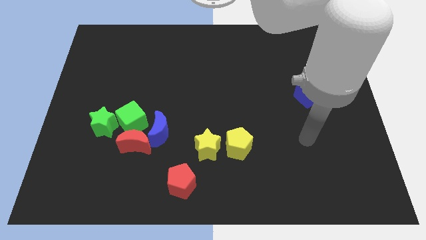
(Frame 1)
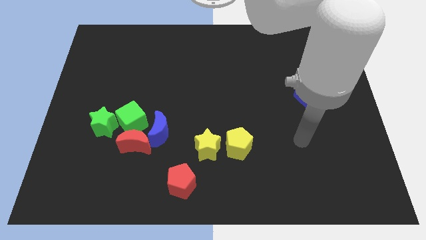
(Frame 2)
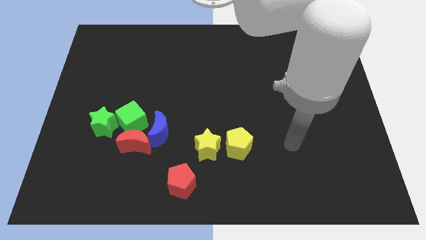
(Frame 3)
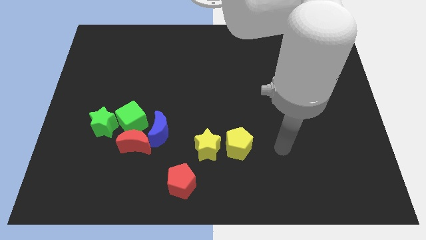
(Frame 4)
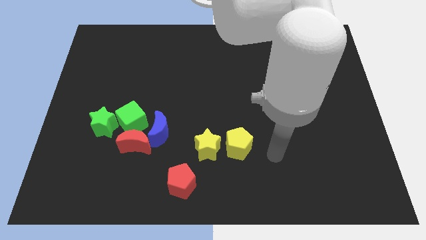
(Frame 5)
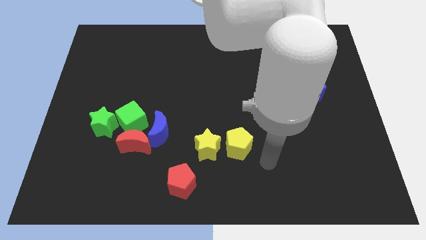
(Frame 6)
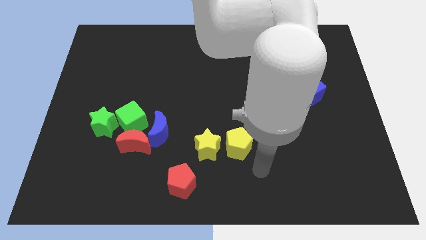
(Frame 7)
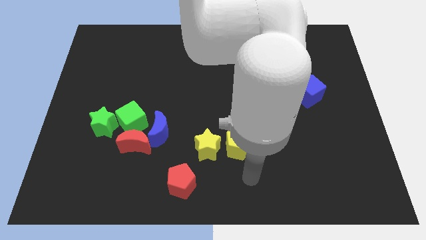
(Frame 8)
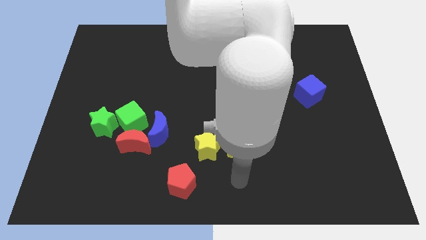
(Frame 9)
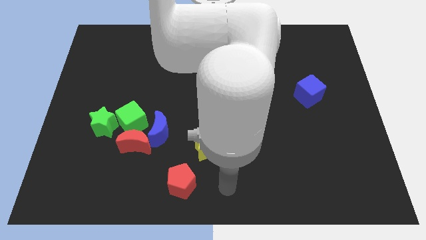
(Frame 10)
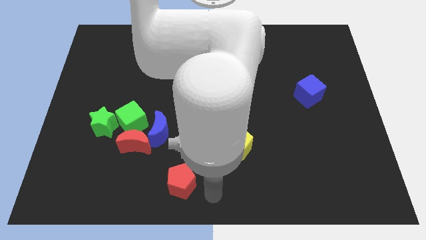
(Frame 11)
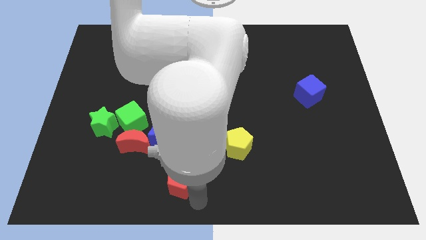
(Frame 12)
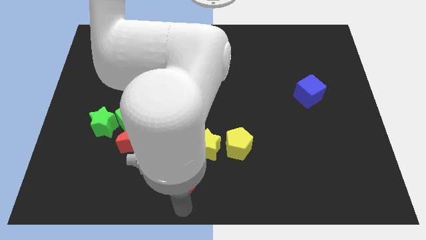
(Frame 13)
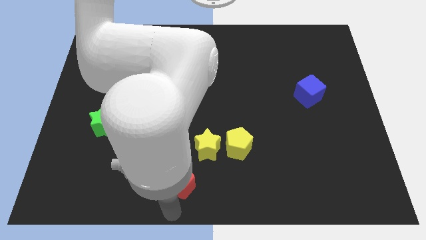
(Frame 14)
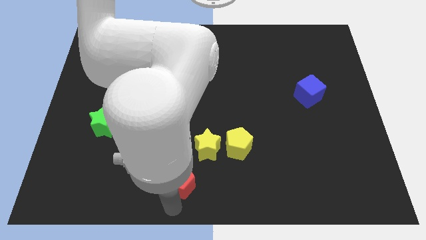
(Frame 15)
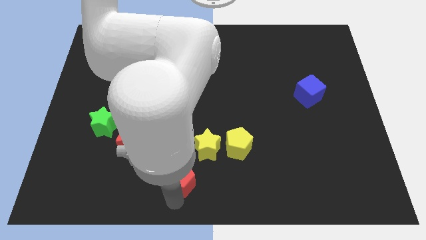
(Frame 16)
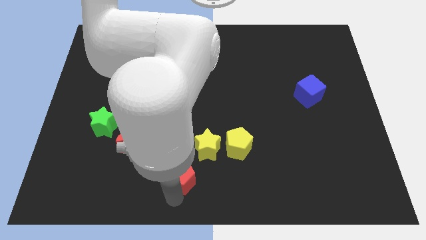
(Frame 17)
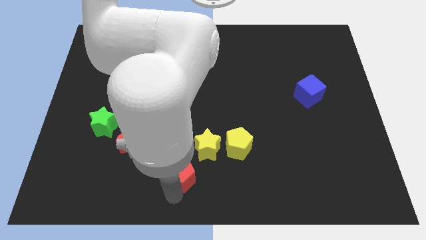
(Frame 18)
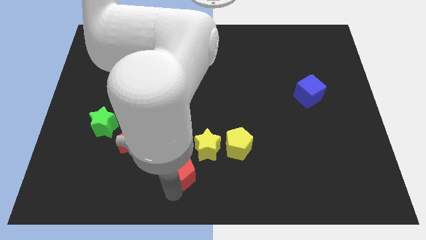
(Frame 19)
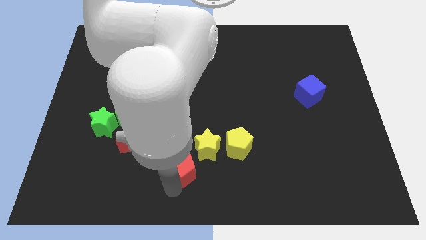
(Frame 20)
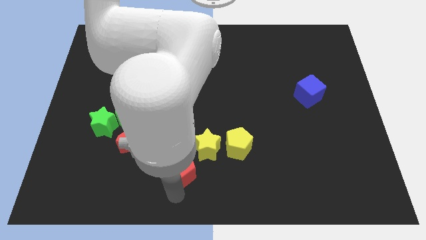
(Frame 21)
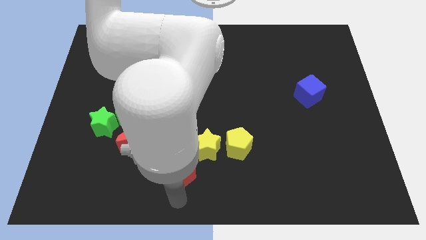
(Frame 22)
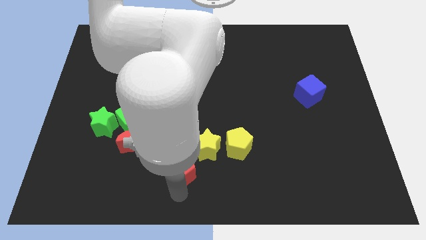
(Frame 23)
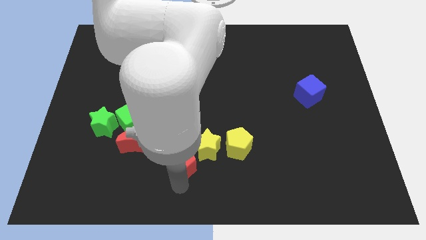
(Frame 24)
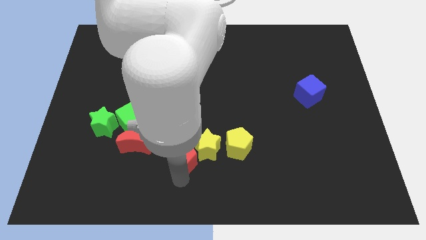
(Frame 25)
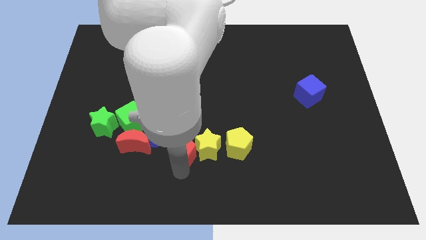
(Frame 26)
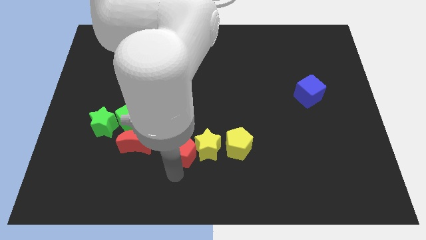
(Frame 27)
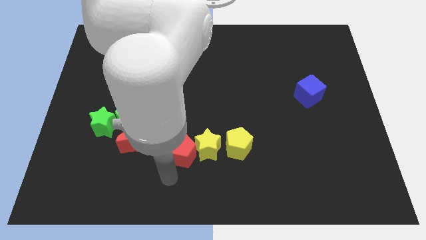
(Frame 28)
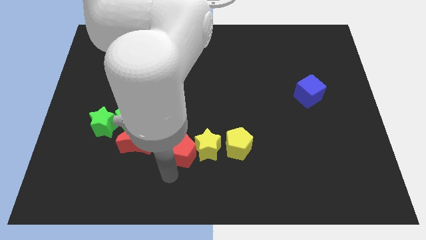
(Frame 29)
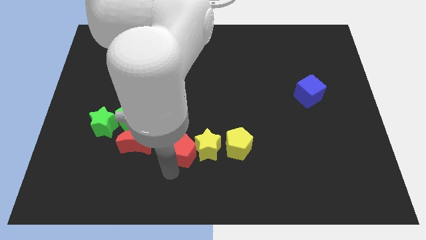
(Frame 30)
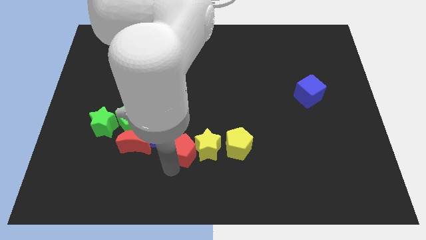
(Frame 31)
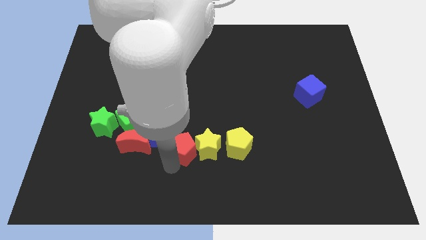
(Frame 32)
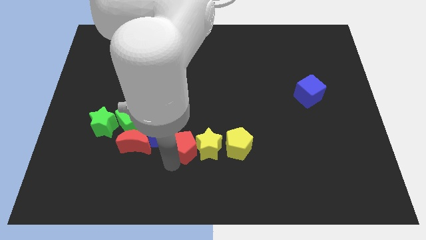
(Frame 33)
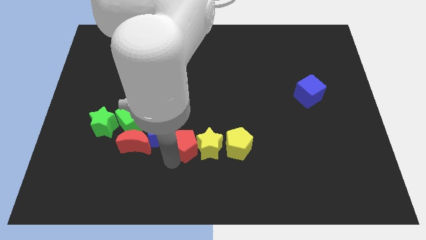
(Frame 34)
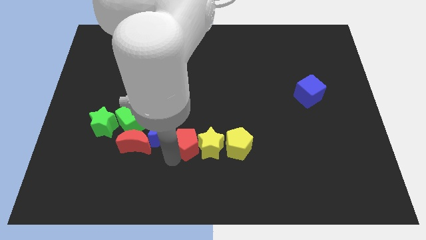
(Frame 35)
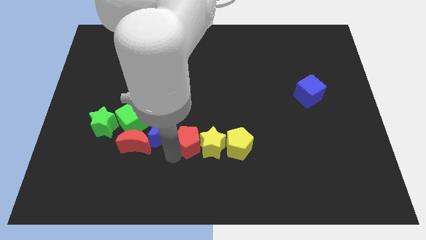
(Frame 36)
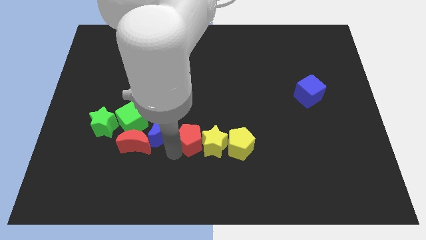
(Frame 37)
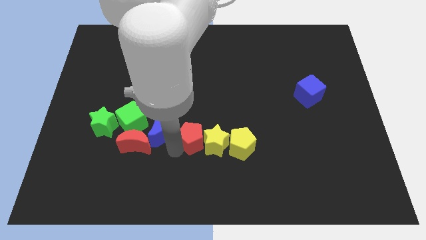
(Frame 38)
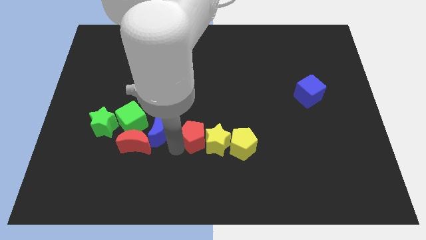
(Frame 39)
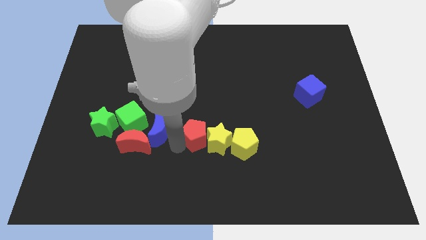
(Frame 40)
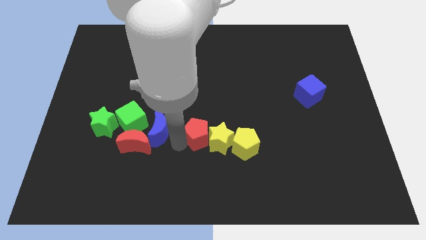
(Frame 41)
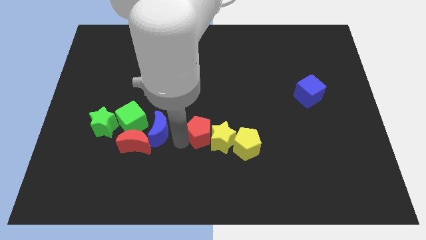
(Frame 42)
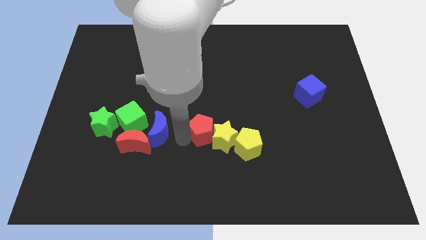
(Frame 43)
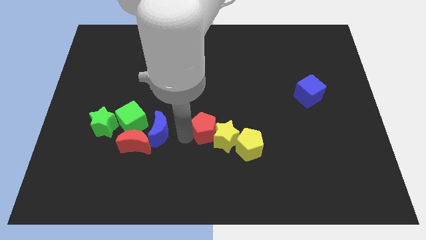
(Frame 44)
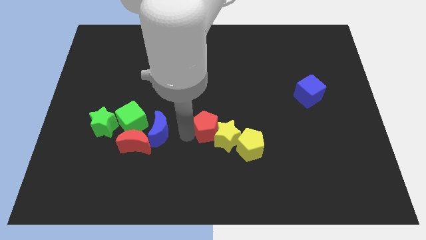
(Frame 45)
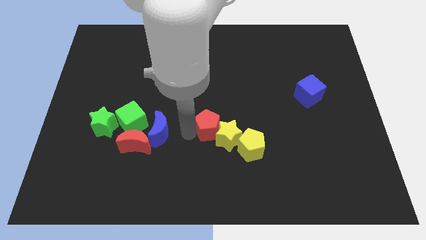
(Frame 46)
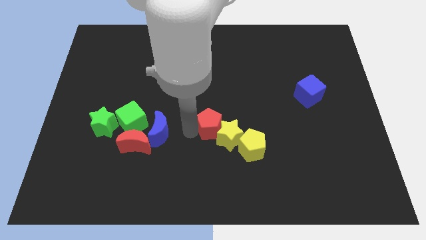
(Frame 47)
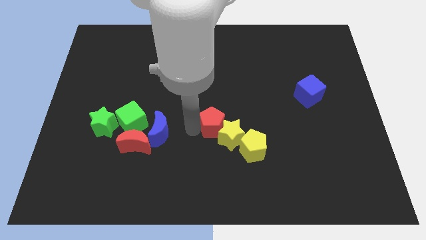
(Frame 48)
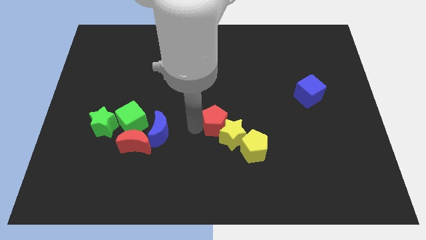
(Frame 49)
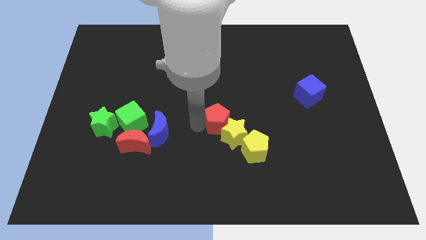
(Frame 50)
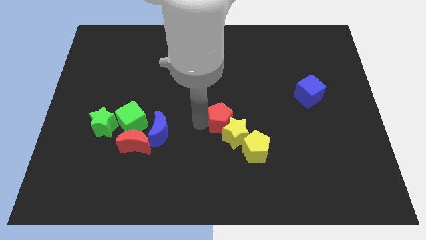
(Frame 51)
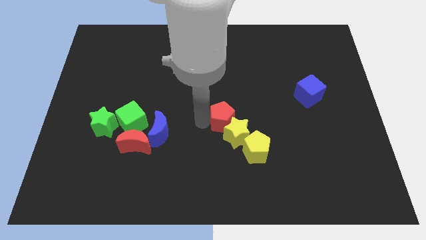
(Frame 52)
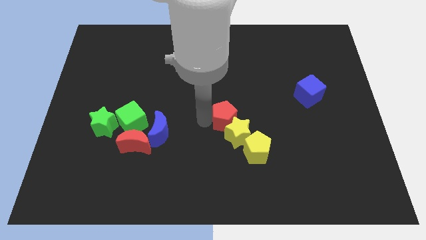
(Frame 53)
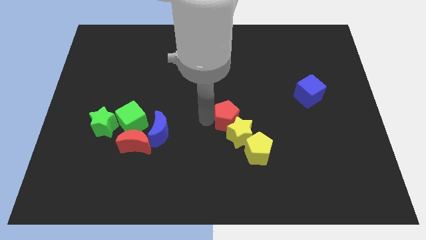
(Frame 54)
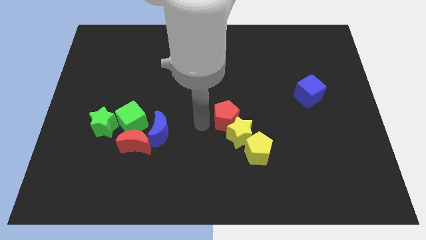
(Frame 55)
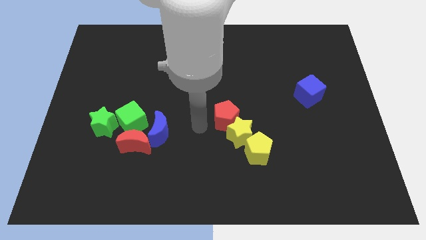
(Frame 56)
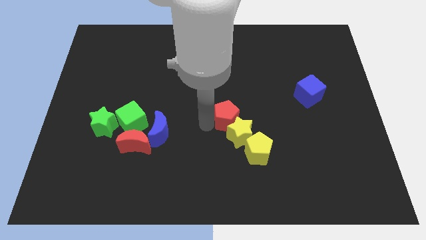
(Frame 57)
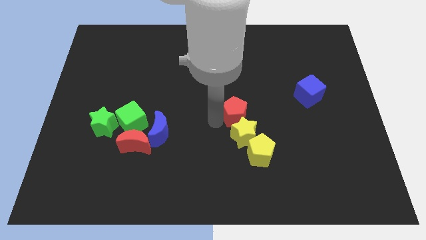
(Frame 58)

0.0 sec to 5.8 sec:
slide the red pentagon up and then right

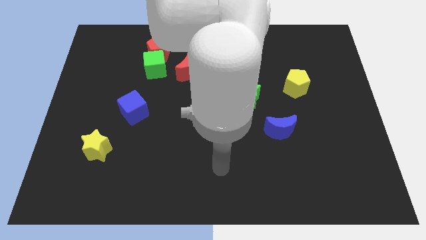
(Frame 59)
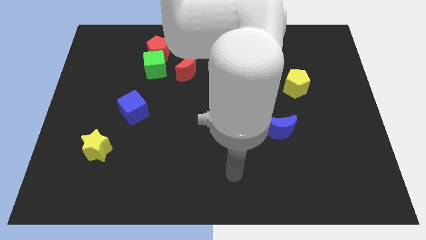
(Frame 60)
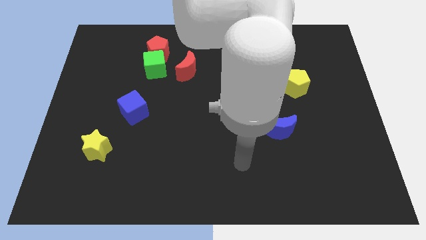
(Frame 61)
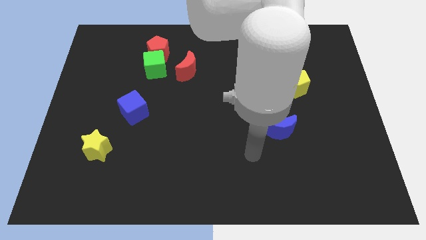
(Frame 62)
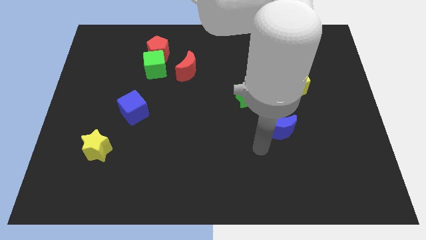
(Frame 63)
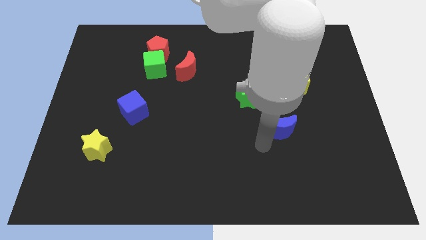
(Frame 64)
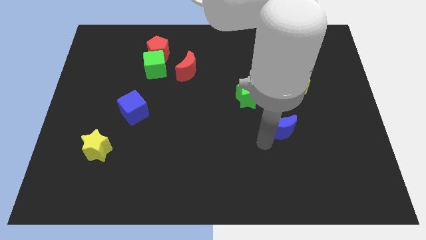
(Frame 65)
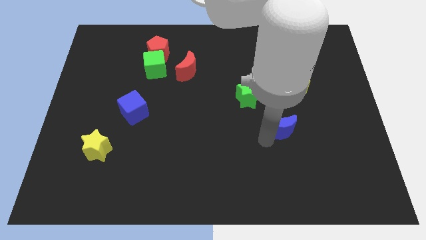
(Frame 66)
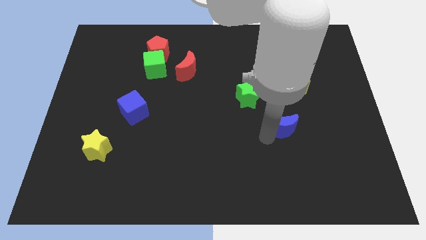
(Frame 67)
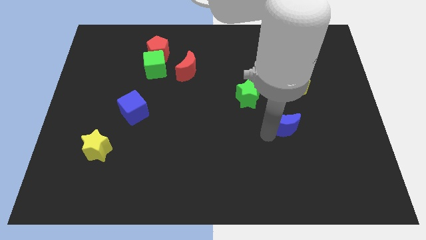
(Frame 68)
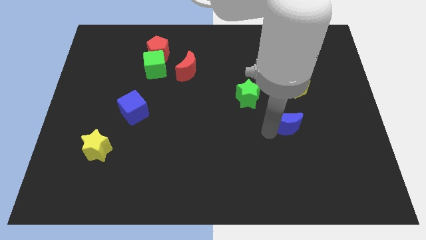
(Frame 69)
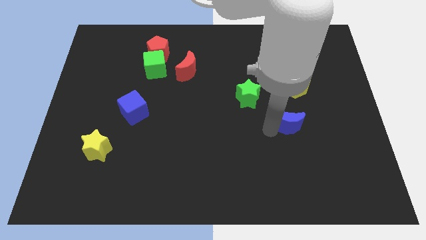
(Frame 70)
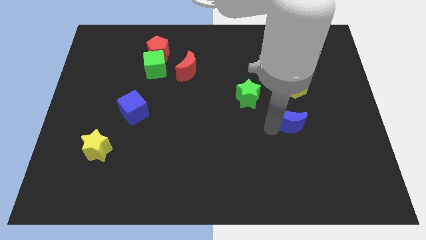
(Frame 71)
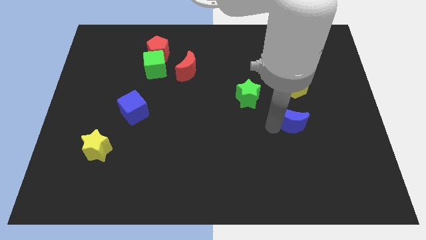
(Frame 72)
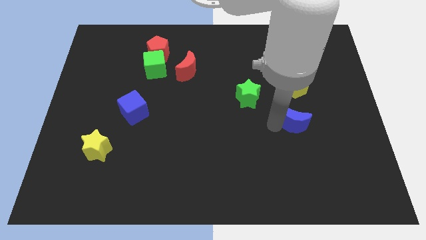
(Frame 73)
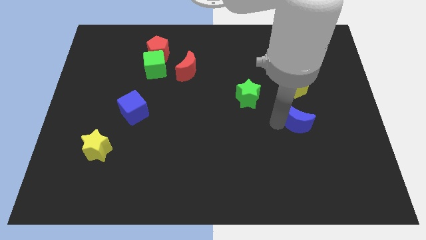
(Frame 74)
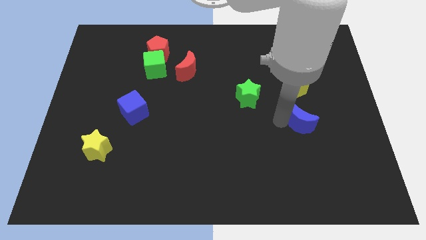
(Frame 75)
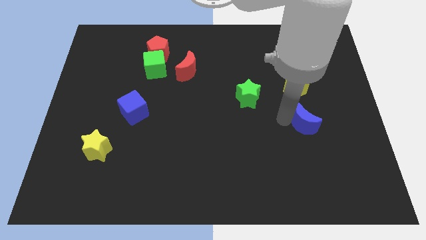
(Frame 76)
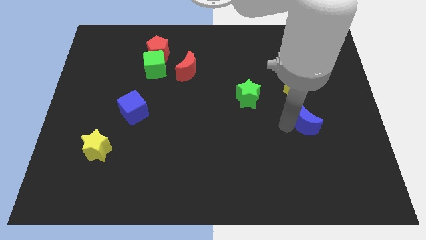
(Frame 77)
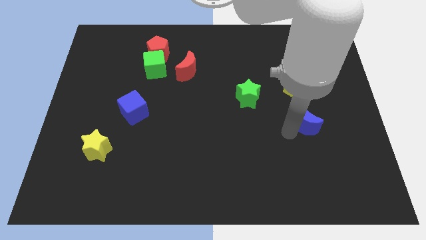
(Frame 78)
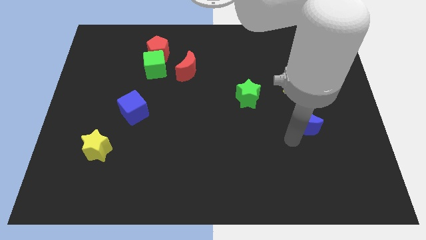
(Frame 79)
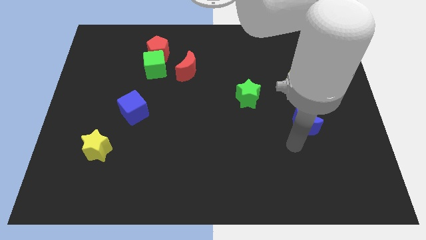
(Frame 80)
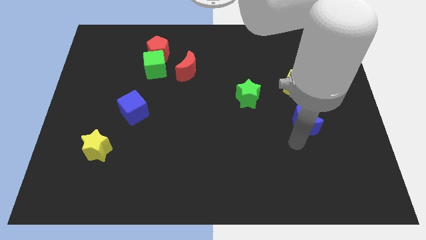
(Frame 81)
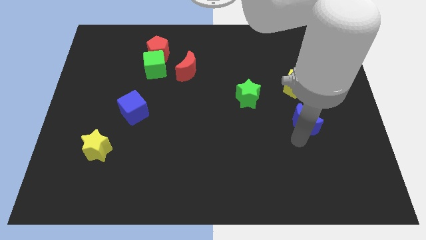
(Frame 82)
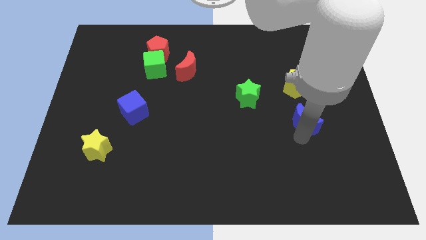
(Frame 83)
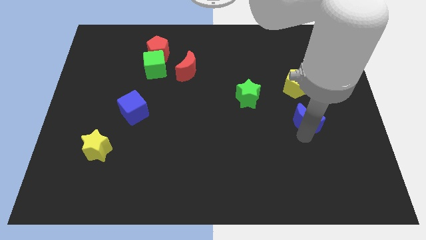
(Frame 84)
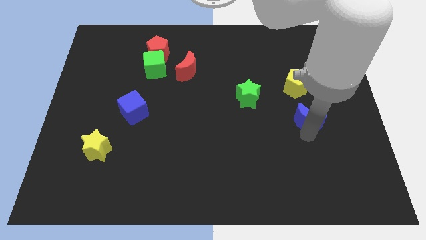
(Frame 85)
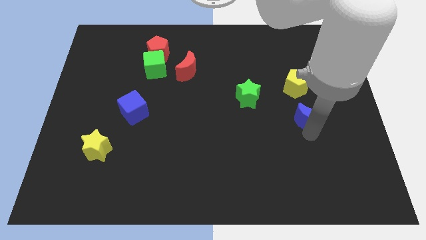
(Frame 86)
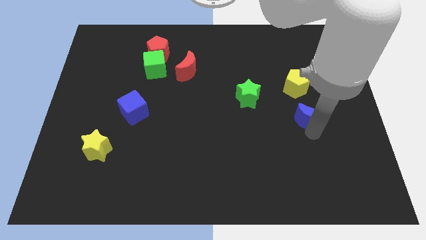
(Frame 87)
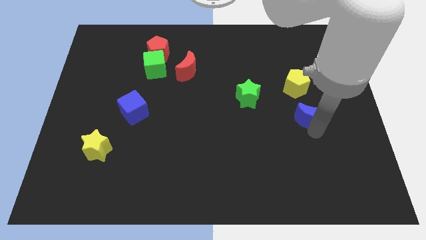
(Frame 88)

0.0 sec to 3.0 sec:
move the blue moon somewhat up and then right
